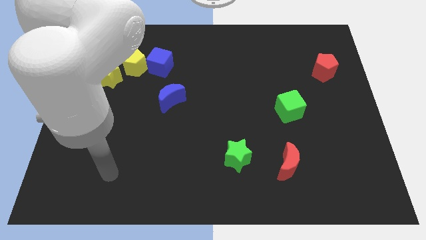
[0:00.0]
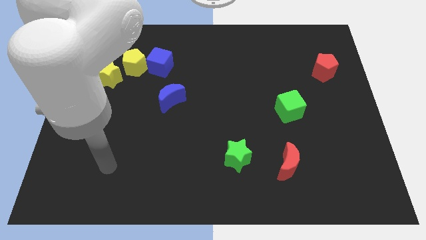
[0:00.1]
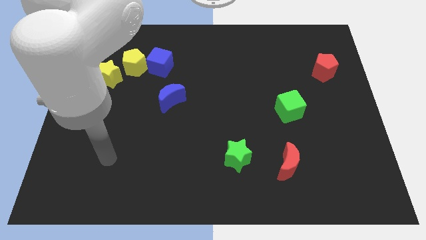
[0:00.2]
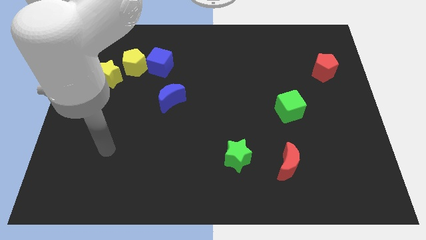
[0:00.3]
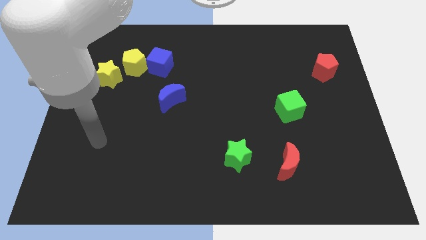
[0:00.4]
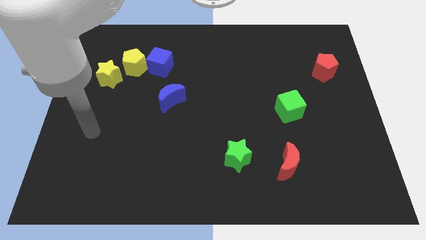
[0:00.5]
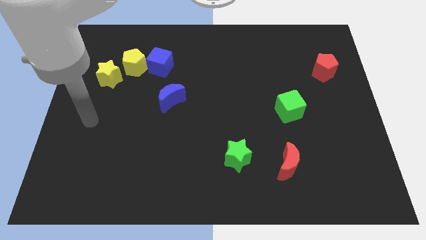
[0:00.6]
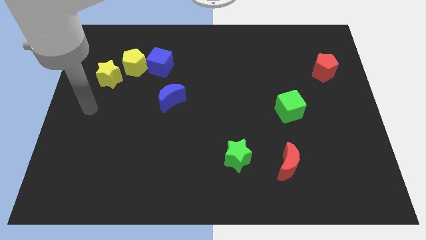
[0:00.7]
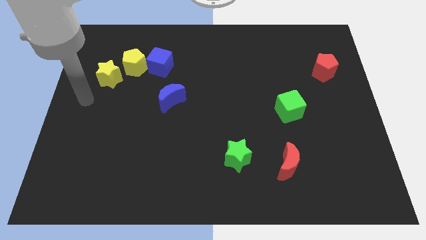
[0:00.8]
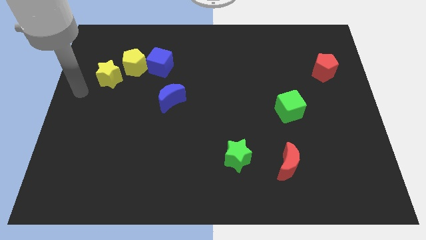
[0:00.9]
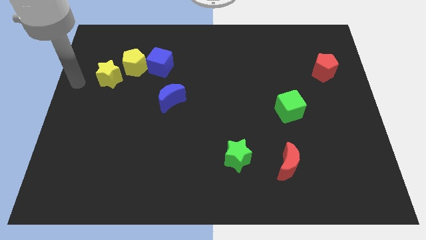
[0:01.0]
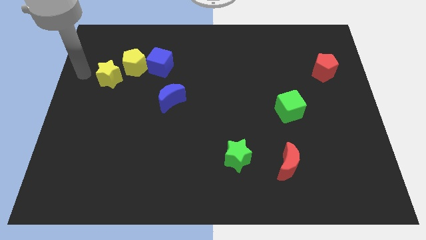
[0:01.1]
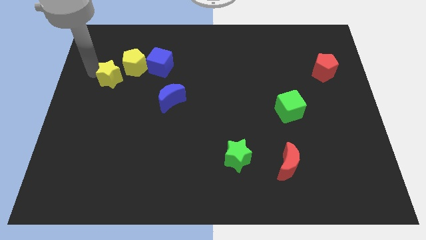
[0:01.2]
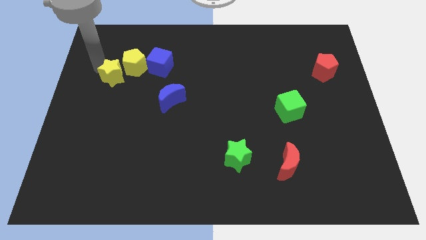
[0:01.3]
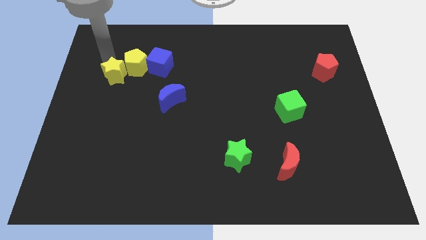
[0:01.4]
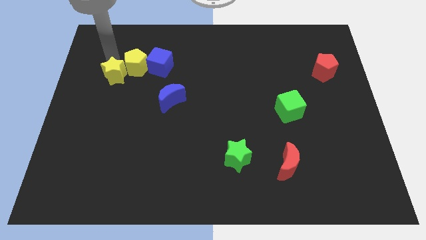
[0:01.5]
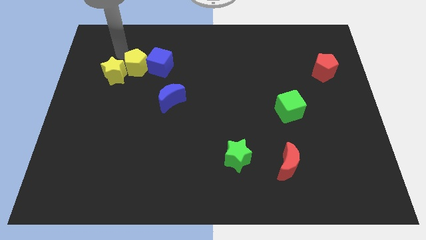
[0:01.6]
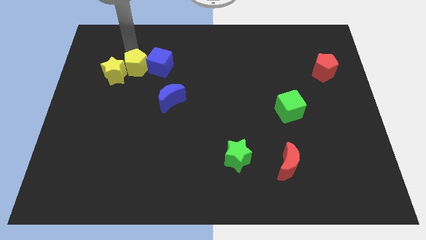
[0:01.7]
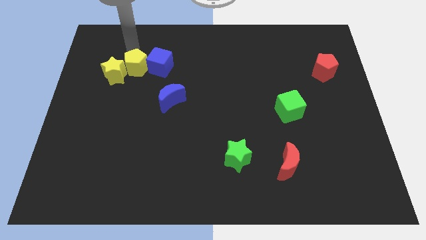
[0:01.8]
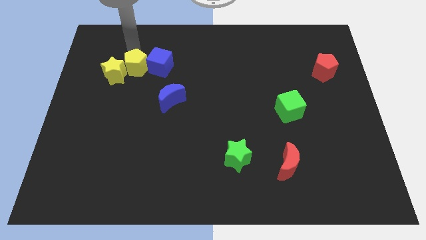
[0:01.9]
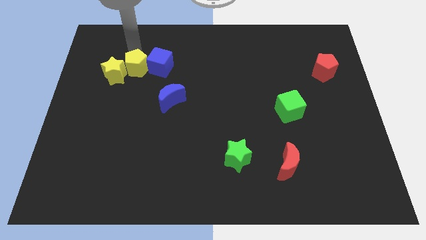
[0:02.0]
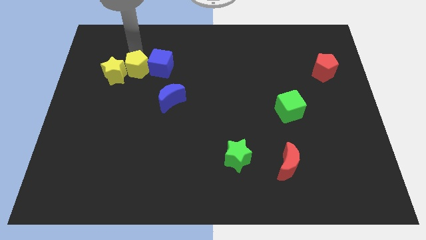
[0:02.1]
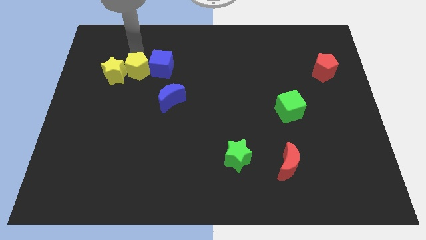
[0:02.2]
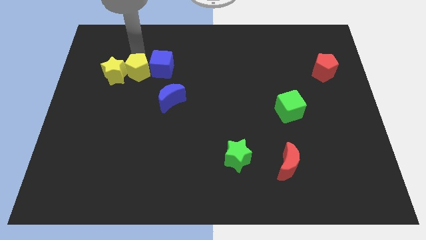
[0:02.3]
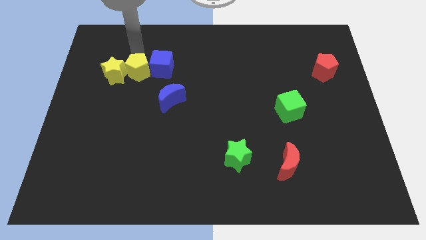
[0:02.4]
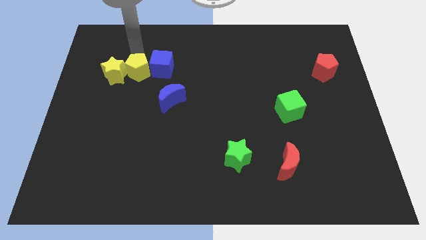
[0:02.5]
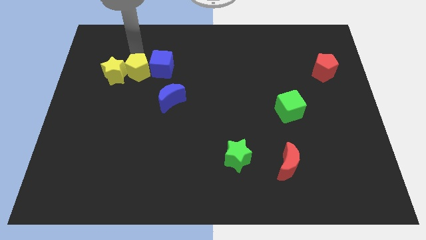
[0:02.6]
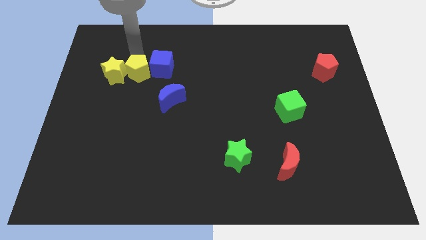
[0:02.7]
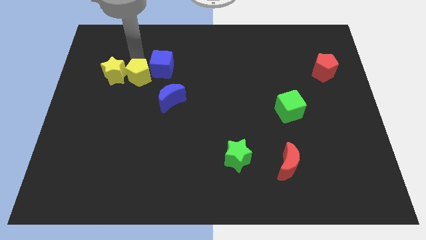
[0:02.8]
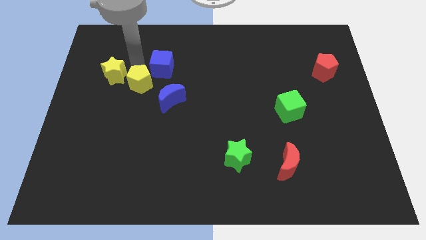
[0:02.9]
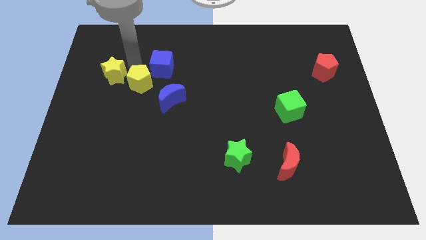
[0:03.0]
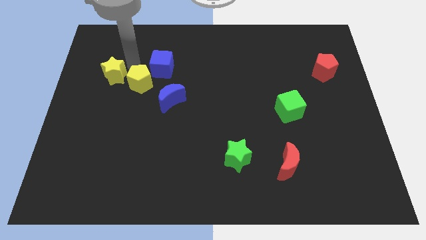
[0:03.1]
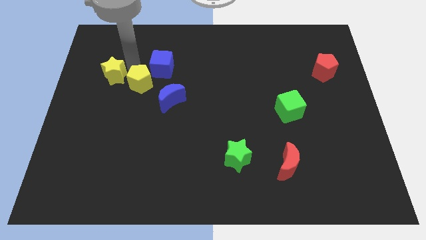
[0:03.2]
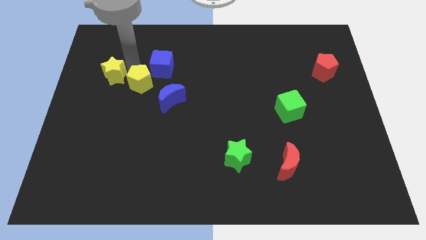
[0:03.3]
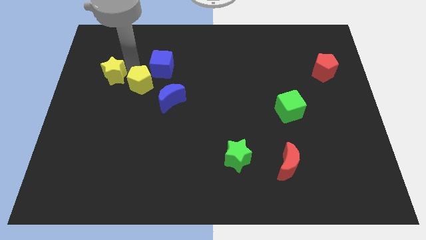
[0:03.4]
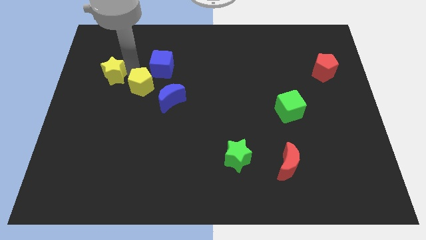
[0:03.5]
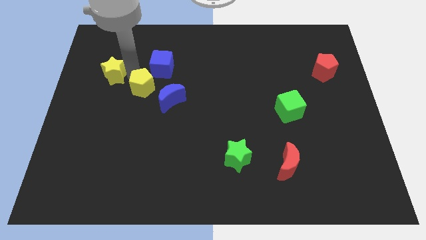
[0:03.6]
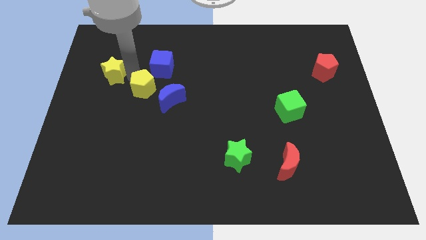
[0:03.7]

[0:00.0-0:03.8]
slightly move the yellow pentagon diagonally downwards and to the right

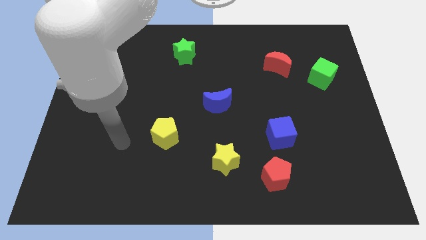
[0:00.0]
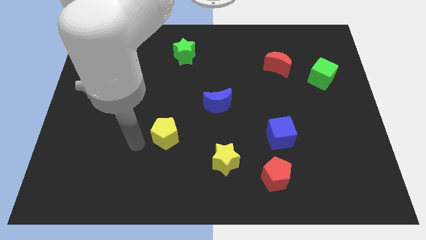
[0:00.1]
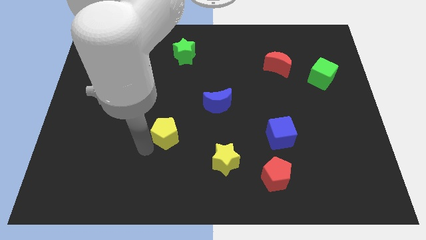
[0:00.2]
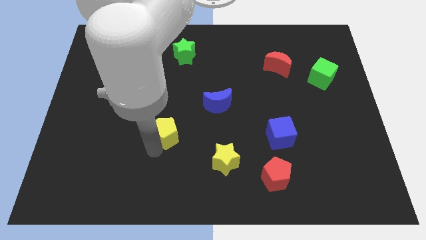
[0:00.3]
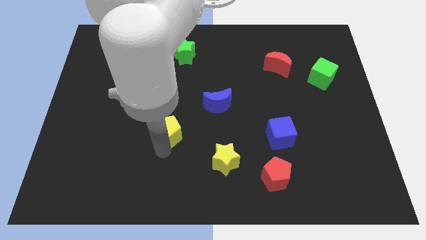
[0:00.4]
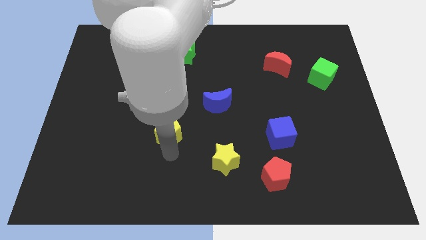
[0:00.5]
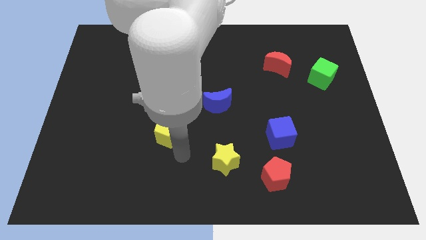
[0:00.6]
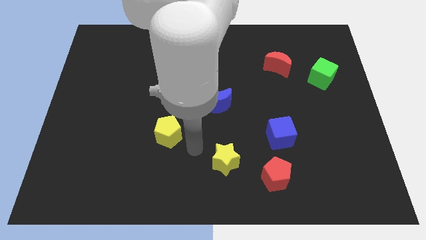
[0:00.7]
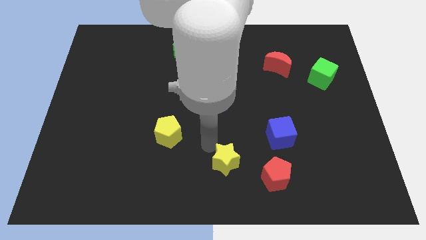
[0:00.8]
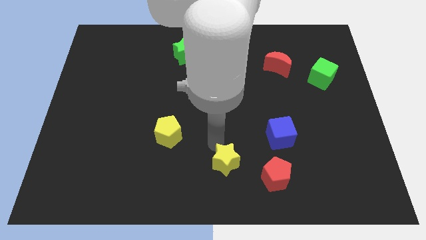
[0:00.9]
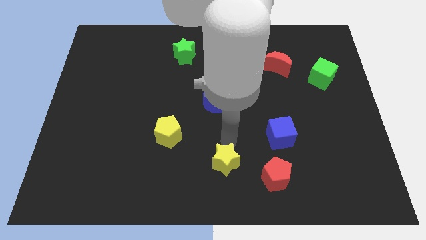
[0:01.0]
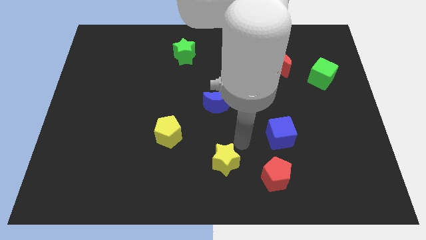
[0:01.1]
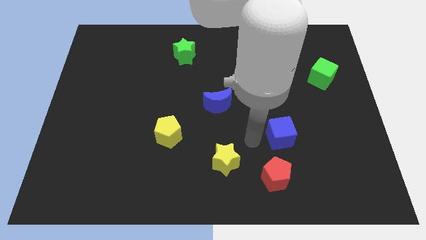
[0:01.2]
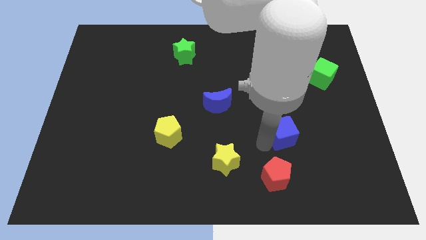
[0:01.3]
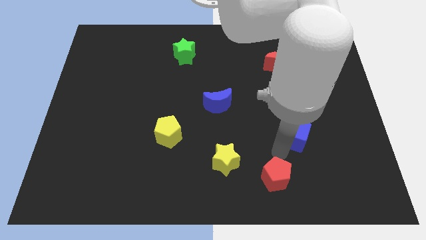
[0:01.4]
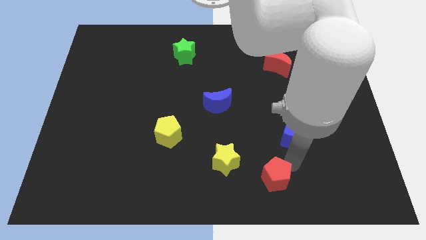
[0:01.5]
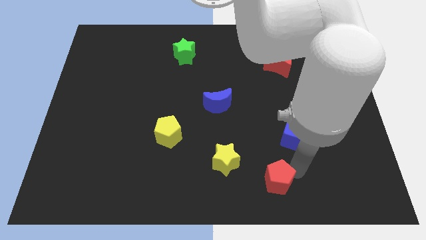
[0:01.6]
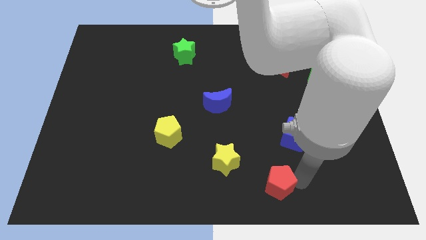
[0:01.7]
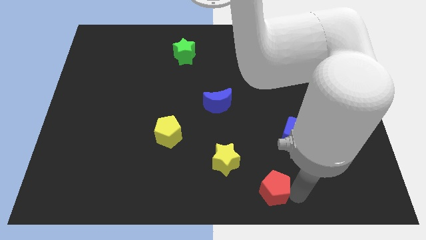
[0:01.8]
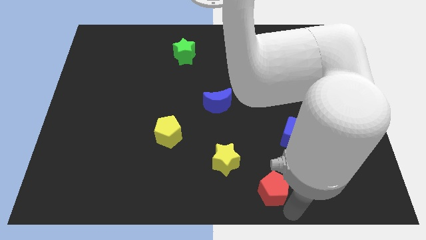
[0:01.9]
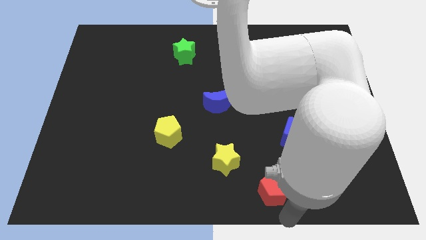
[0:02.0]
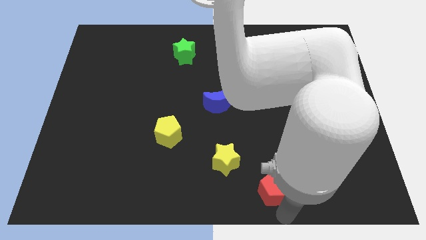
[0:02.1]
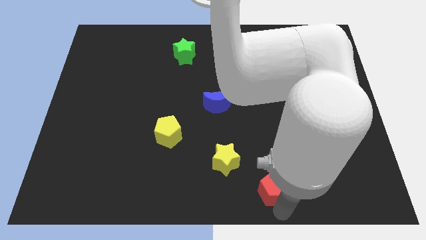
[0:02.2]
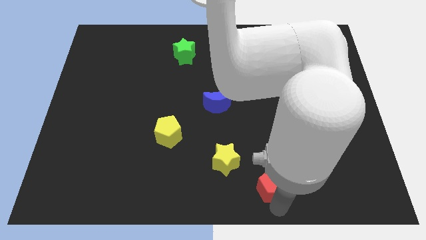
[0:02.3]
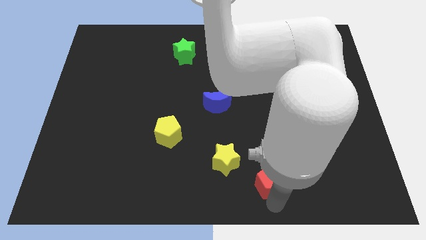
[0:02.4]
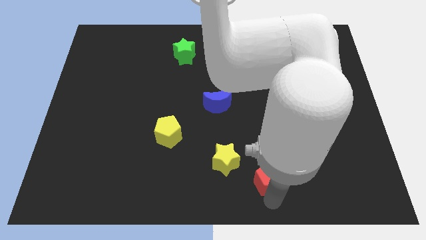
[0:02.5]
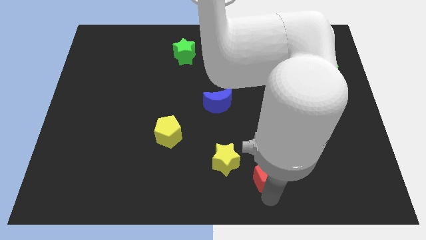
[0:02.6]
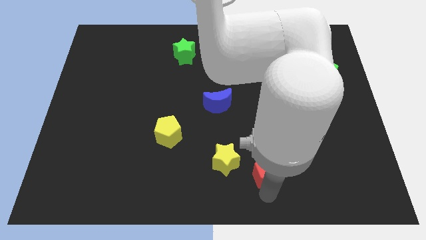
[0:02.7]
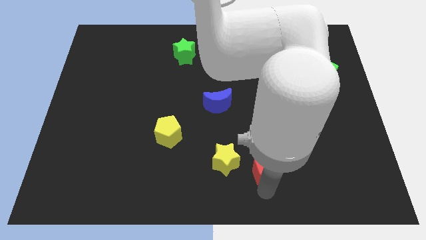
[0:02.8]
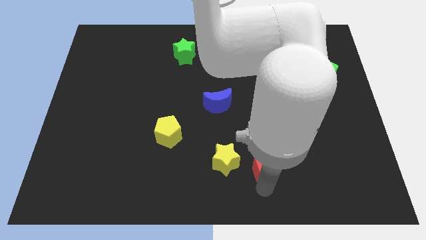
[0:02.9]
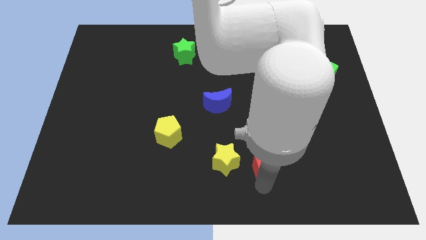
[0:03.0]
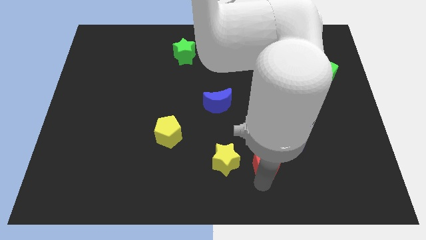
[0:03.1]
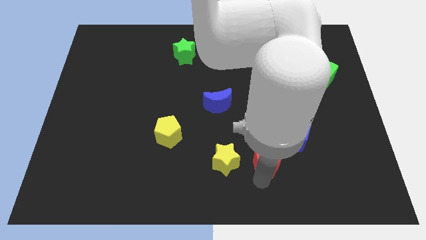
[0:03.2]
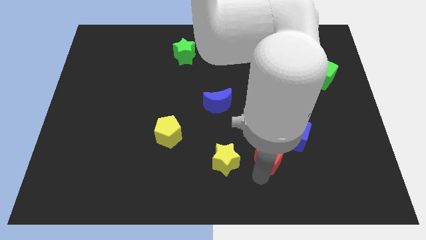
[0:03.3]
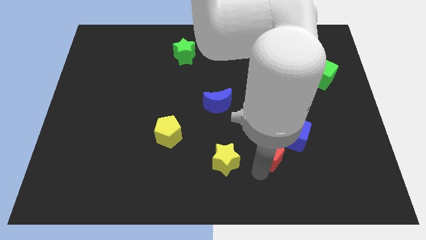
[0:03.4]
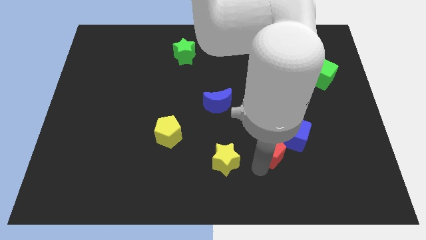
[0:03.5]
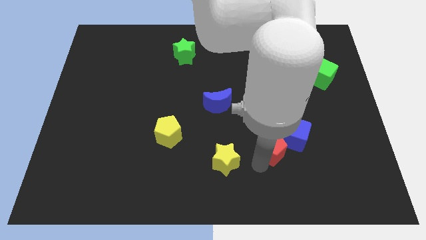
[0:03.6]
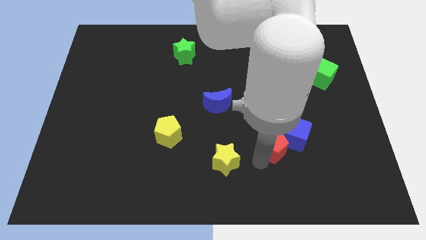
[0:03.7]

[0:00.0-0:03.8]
slightly move the red pentagon up

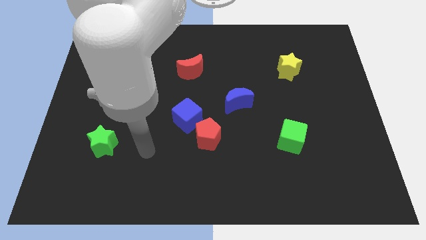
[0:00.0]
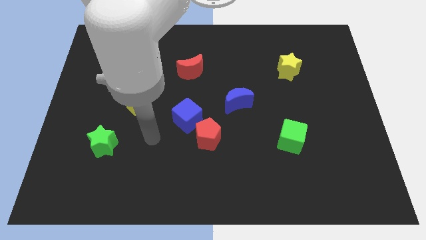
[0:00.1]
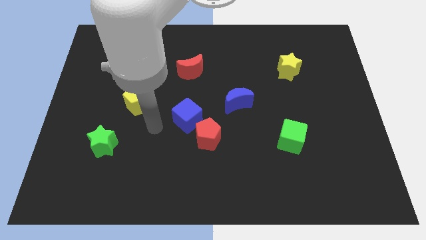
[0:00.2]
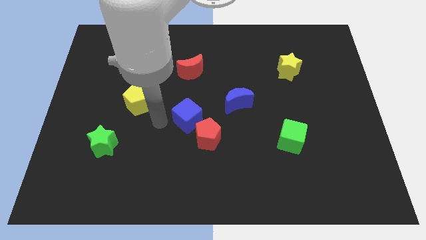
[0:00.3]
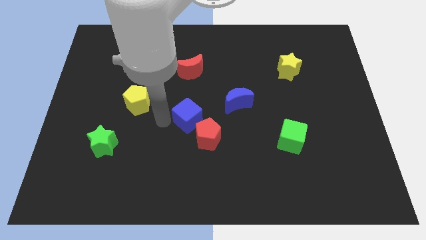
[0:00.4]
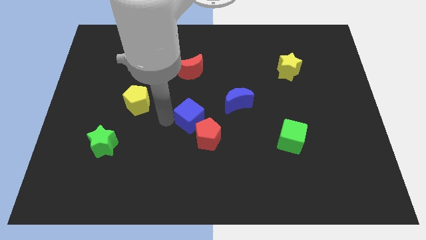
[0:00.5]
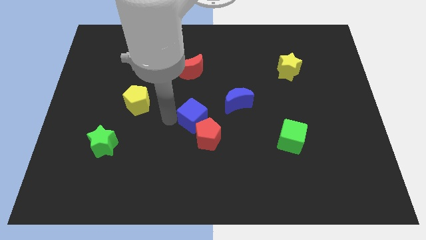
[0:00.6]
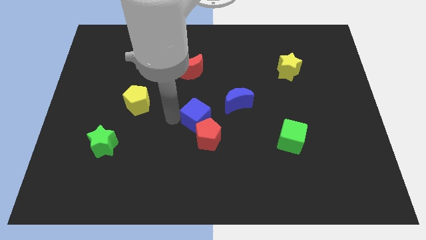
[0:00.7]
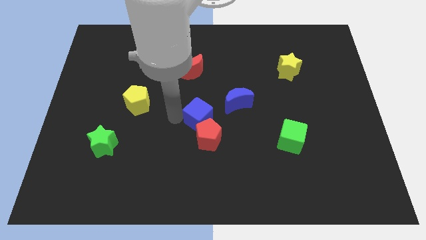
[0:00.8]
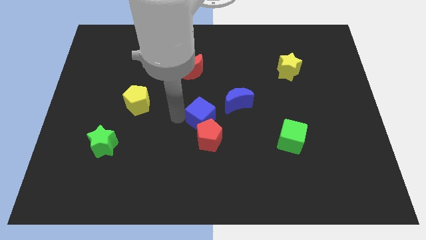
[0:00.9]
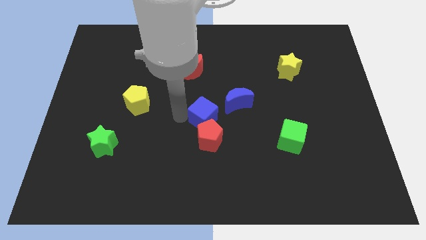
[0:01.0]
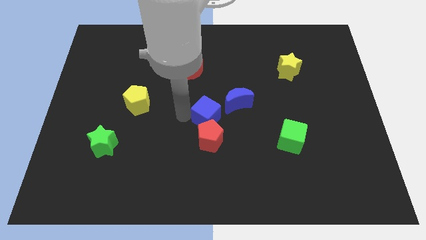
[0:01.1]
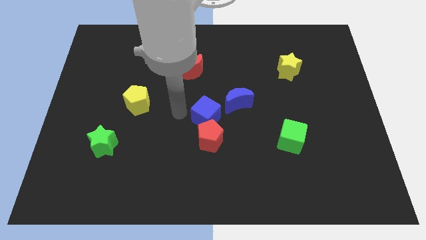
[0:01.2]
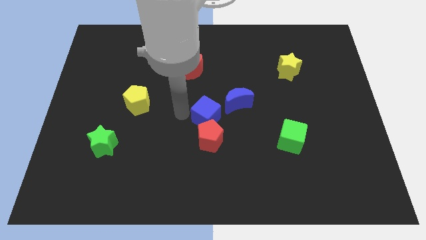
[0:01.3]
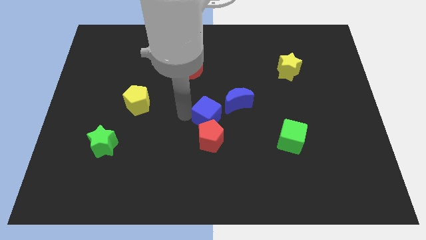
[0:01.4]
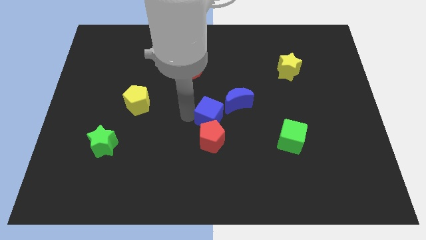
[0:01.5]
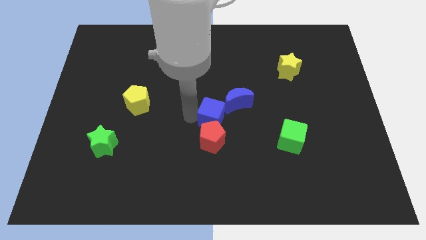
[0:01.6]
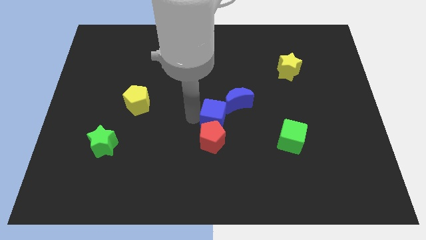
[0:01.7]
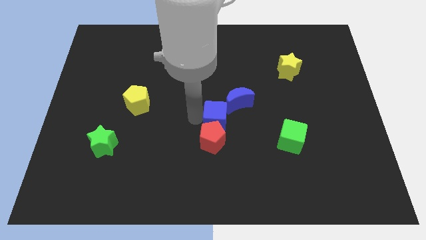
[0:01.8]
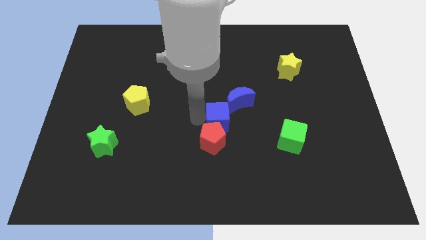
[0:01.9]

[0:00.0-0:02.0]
move the blue cube to the right slightly
